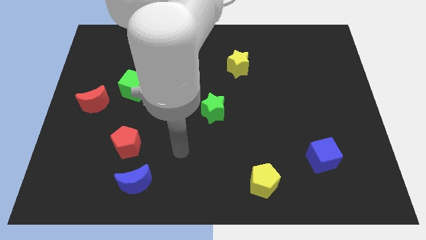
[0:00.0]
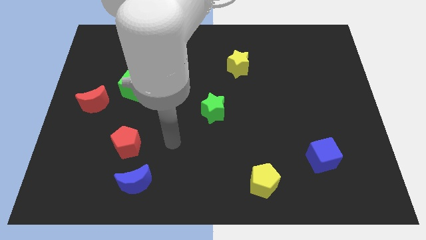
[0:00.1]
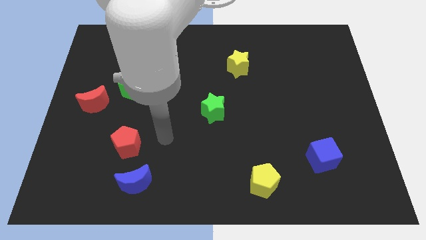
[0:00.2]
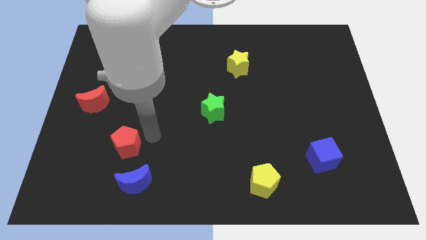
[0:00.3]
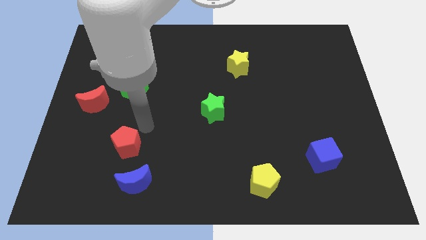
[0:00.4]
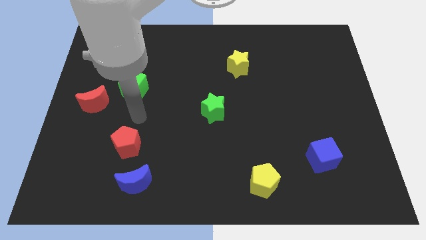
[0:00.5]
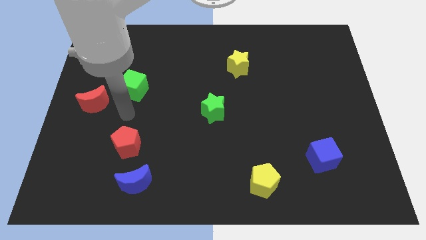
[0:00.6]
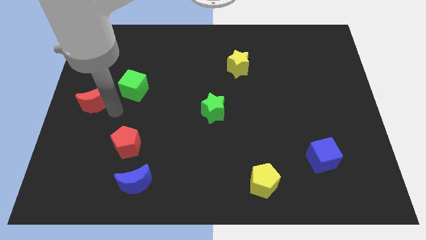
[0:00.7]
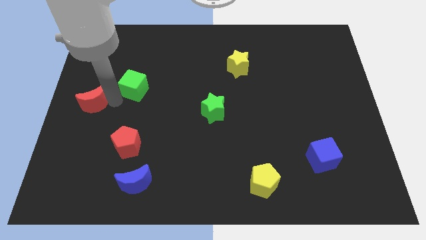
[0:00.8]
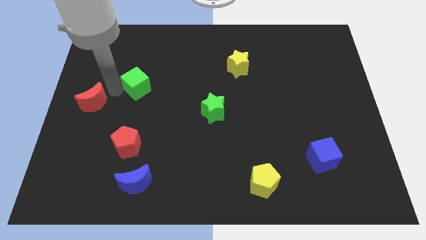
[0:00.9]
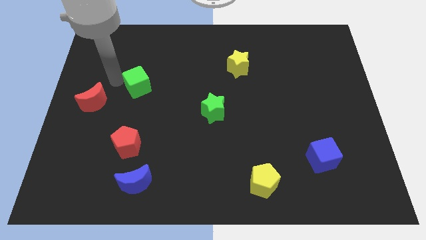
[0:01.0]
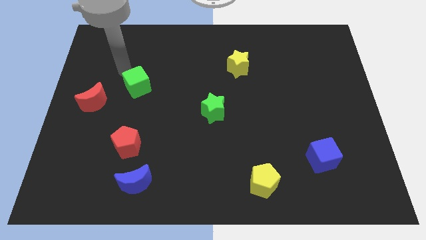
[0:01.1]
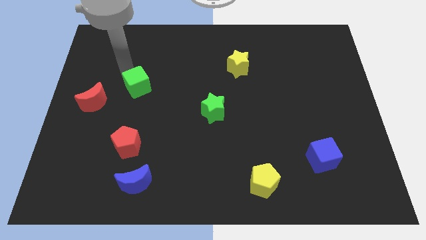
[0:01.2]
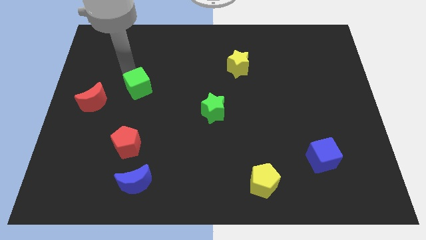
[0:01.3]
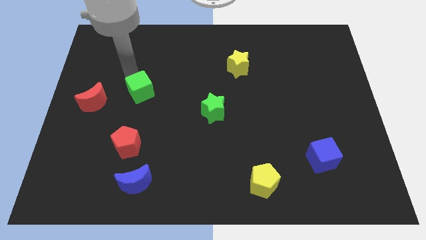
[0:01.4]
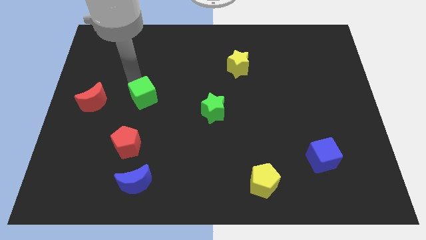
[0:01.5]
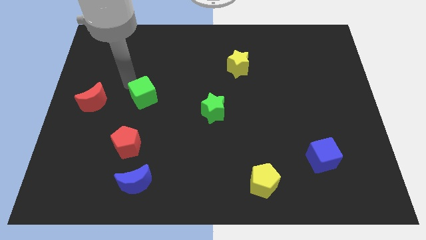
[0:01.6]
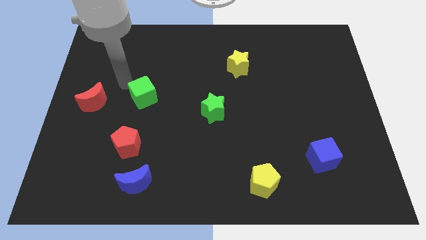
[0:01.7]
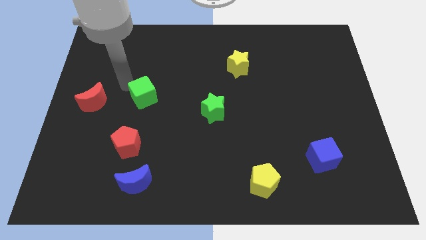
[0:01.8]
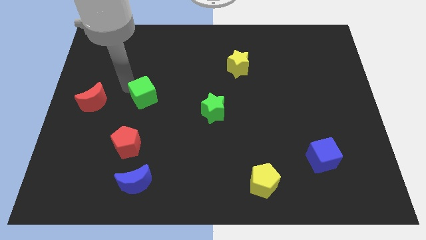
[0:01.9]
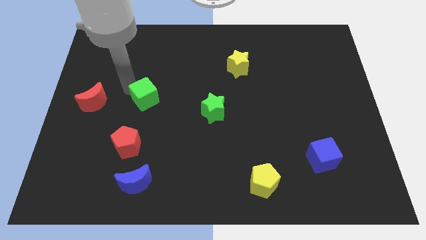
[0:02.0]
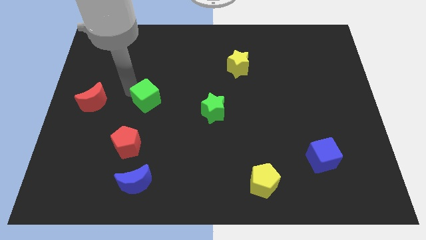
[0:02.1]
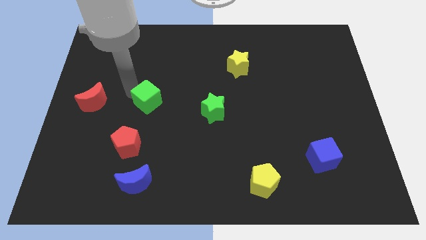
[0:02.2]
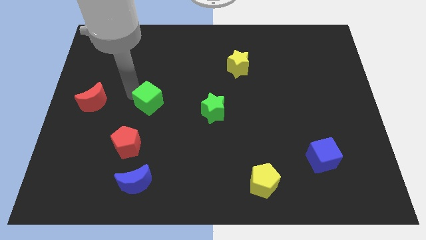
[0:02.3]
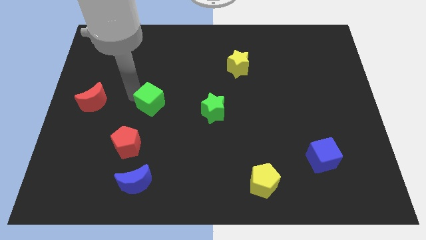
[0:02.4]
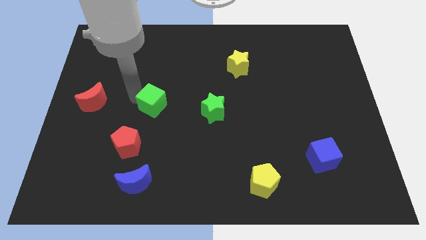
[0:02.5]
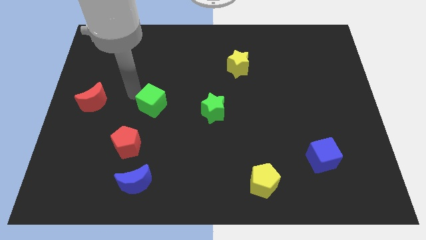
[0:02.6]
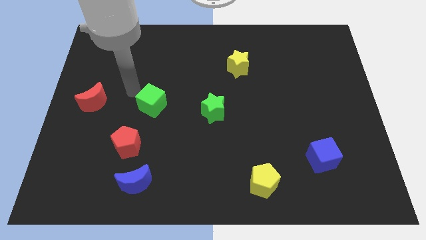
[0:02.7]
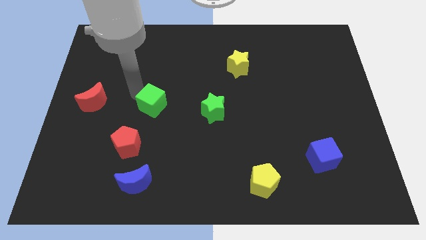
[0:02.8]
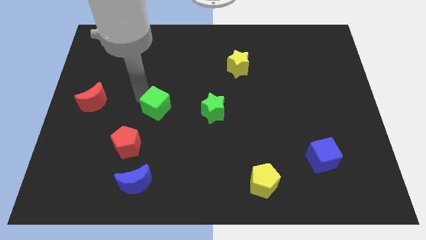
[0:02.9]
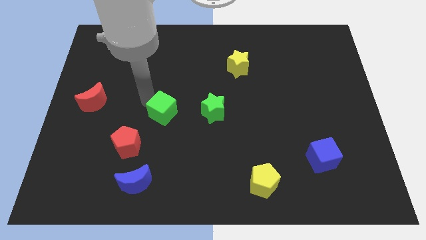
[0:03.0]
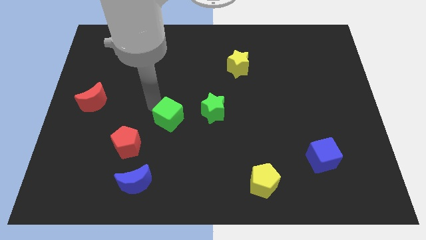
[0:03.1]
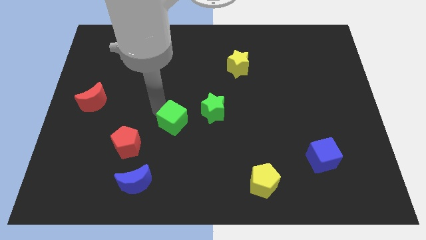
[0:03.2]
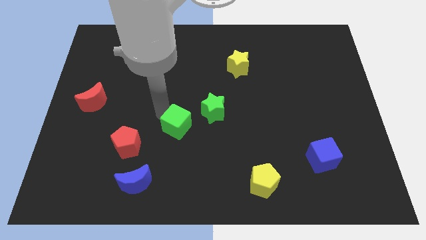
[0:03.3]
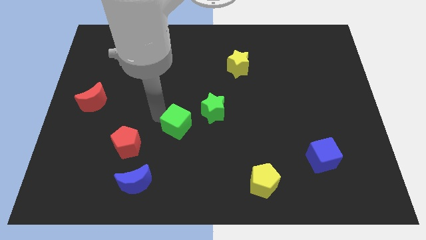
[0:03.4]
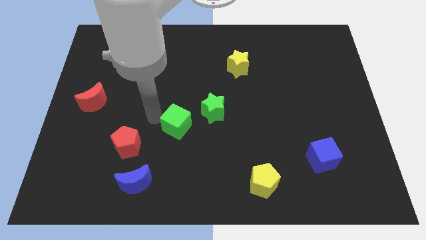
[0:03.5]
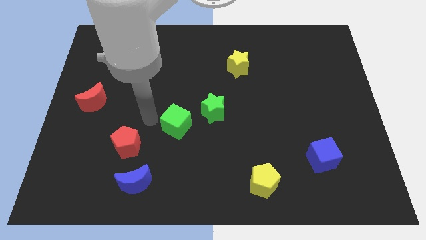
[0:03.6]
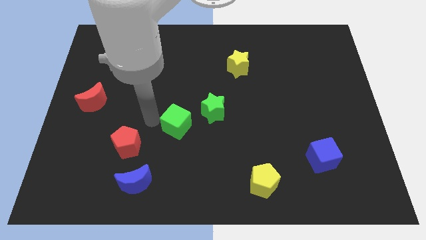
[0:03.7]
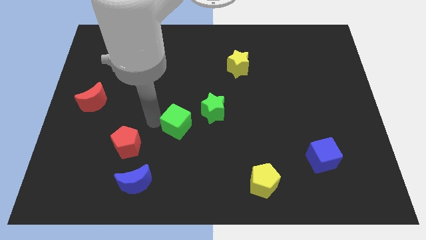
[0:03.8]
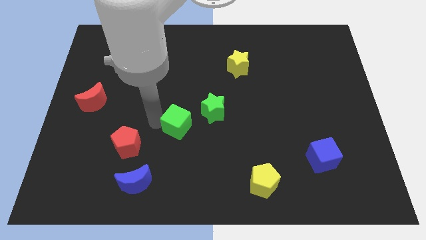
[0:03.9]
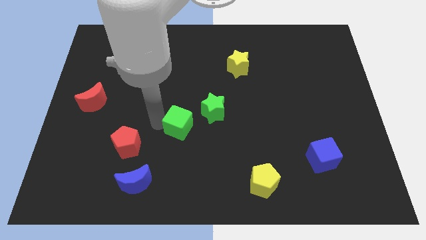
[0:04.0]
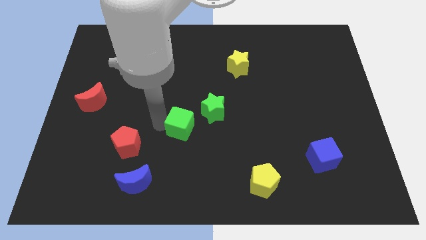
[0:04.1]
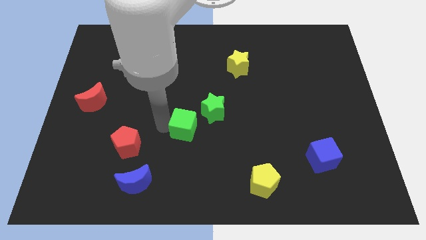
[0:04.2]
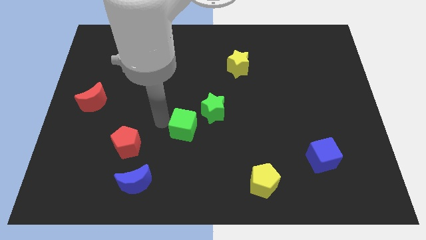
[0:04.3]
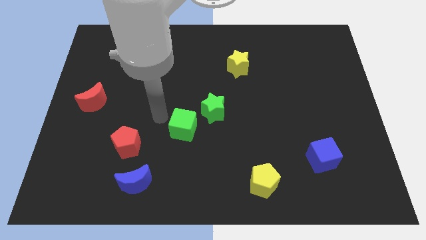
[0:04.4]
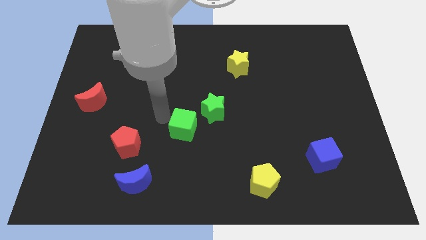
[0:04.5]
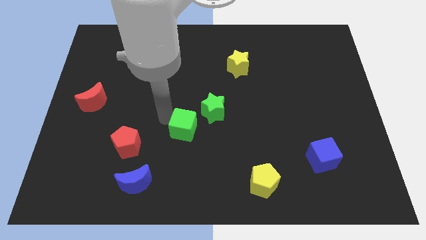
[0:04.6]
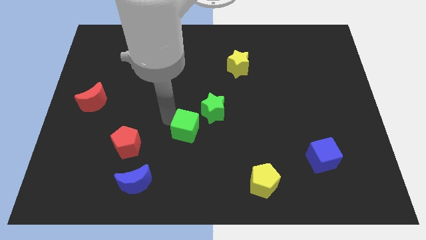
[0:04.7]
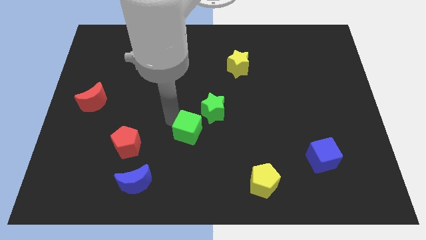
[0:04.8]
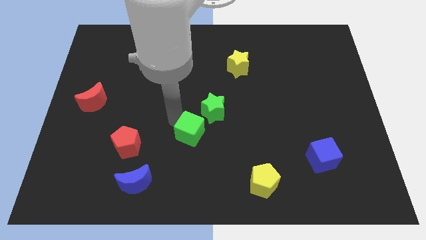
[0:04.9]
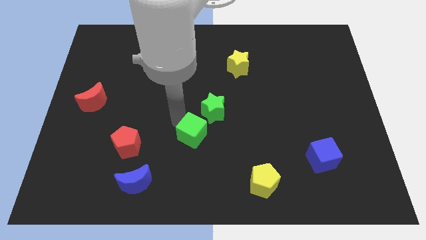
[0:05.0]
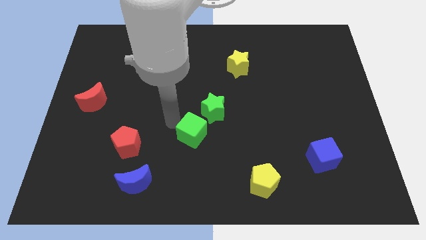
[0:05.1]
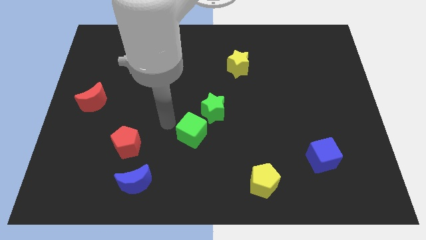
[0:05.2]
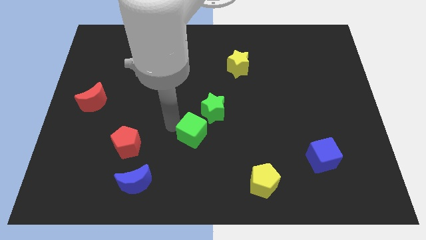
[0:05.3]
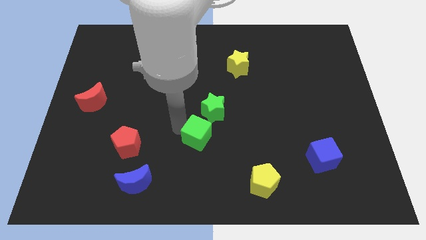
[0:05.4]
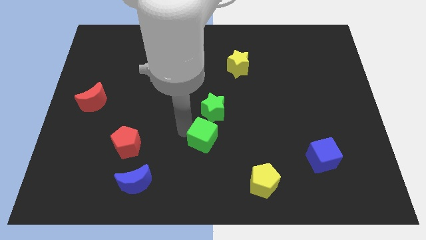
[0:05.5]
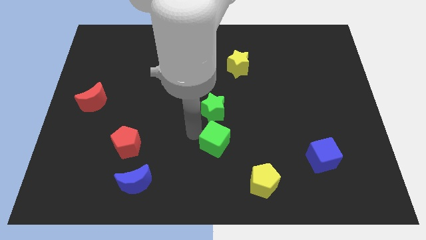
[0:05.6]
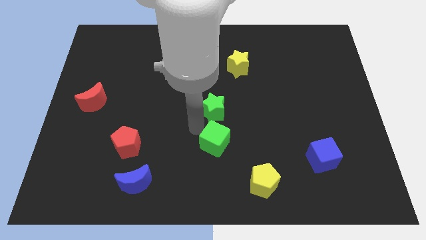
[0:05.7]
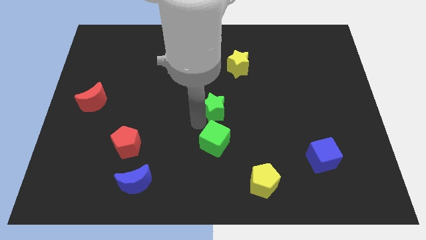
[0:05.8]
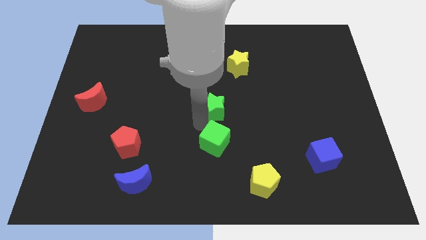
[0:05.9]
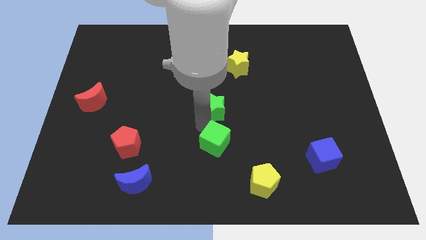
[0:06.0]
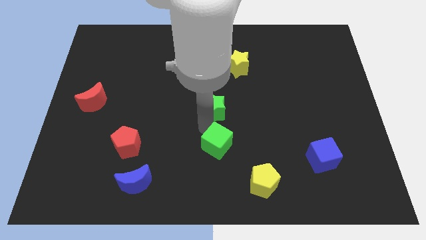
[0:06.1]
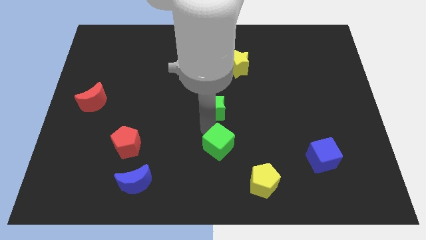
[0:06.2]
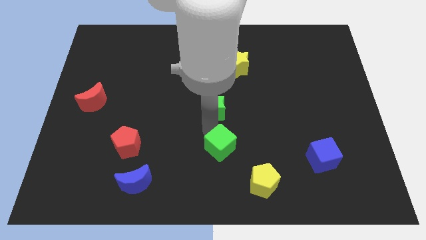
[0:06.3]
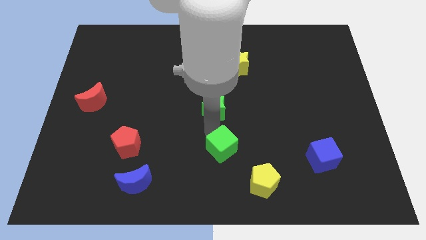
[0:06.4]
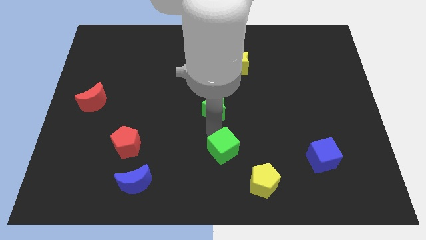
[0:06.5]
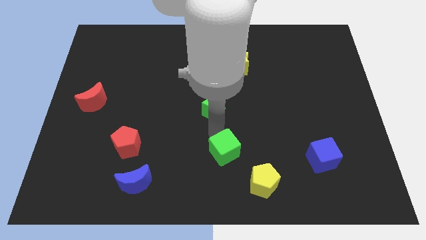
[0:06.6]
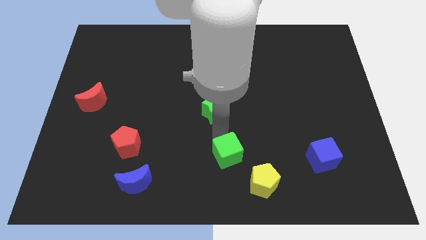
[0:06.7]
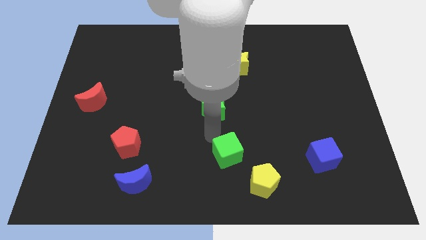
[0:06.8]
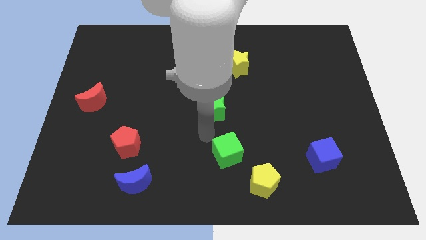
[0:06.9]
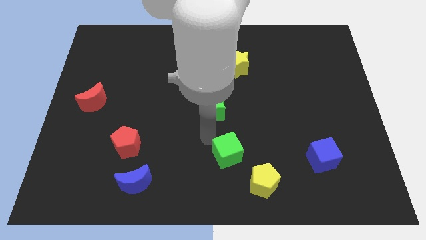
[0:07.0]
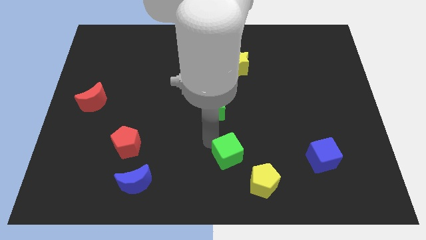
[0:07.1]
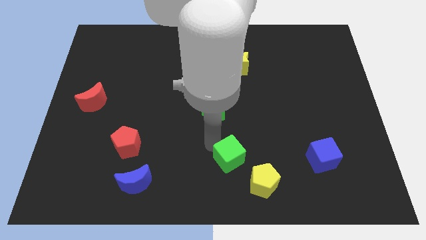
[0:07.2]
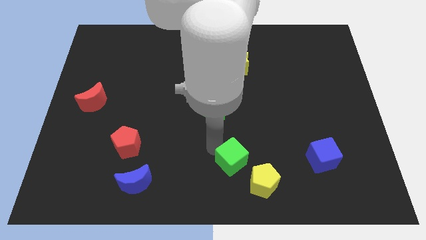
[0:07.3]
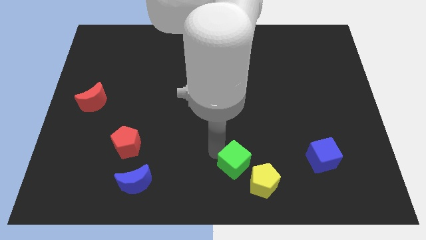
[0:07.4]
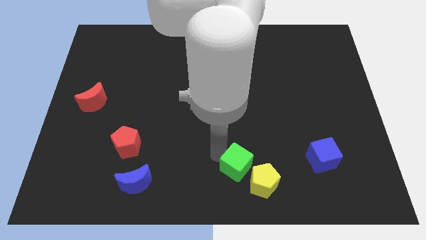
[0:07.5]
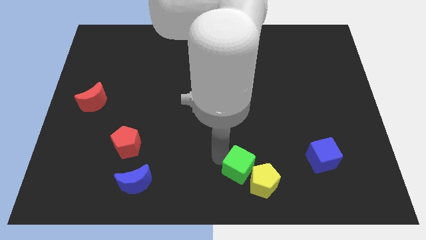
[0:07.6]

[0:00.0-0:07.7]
put the green cube close to the yellow pentagon
